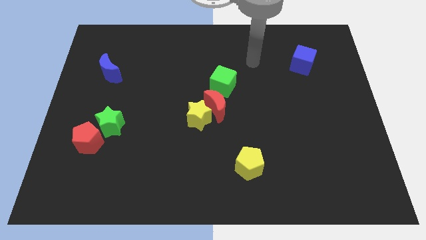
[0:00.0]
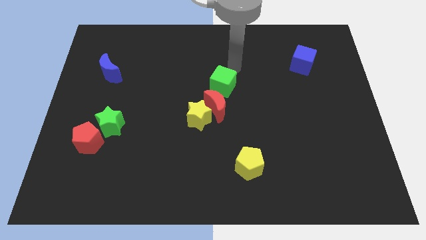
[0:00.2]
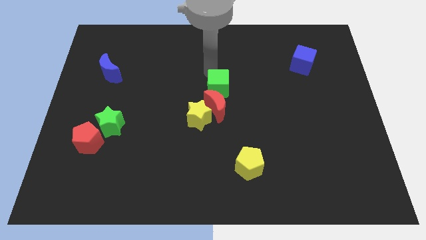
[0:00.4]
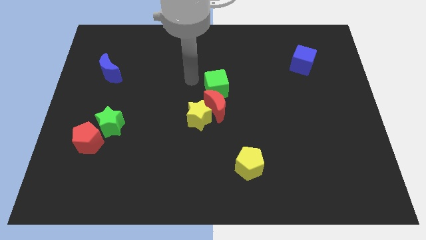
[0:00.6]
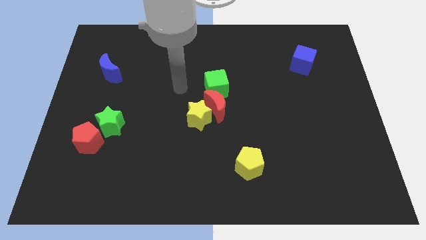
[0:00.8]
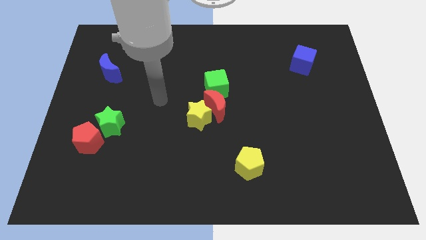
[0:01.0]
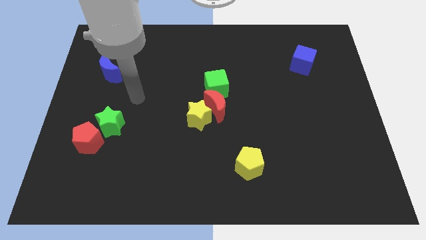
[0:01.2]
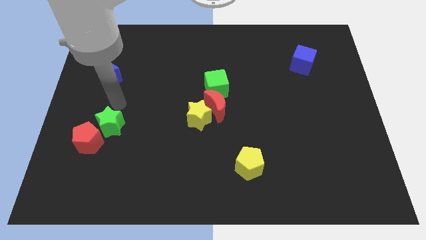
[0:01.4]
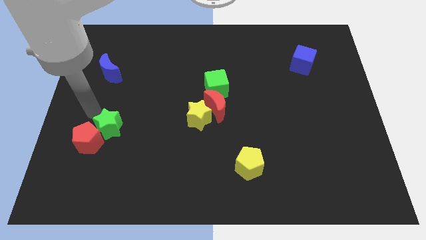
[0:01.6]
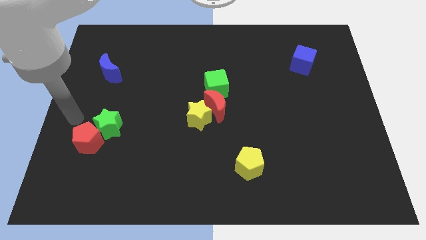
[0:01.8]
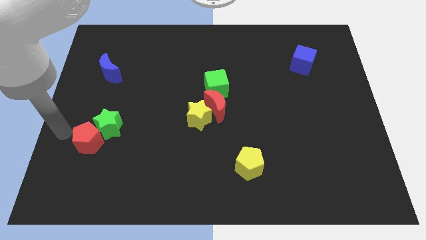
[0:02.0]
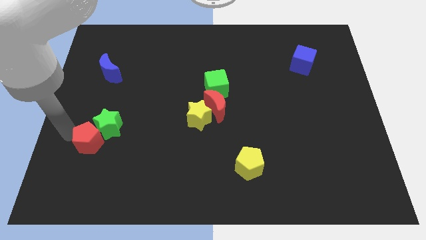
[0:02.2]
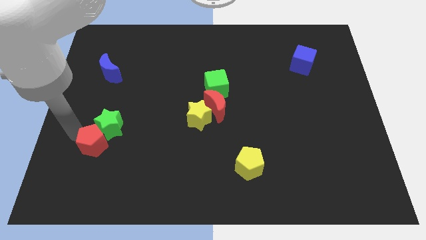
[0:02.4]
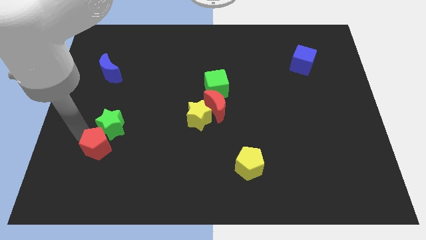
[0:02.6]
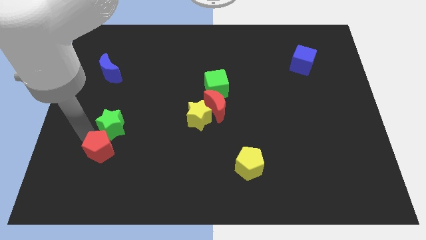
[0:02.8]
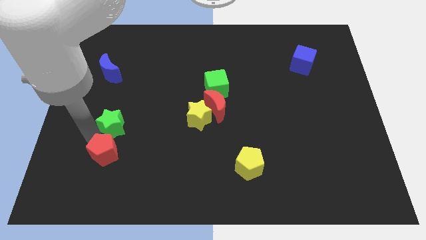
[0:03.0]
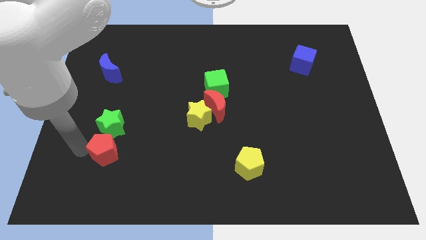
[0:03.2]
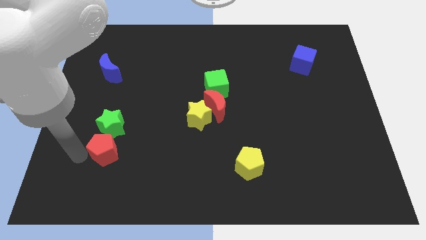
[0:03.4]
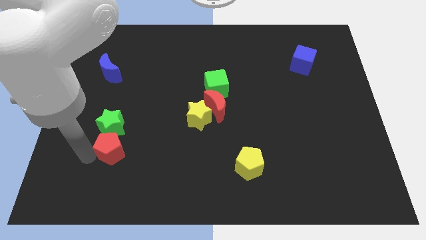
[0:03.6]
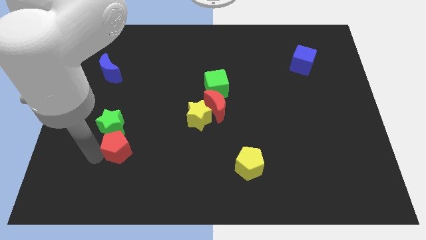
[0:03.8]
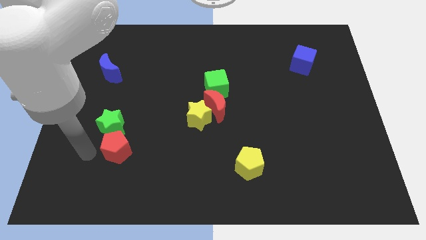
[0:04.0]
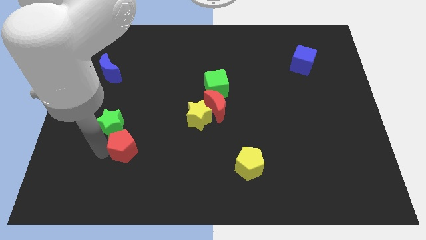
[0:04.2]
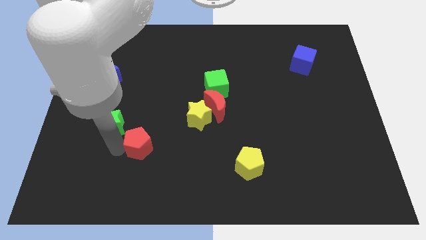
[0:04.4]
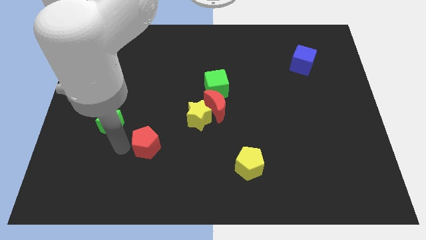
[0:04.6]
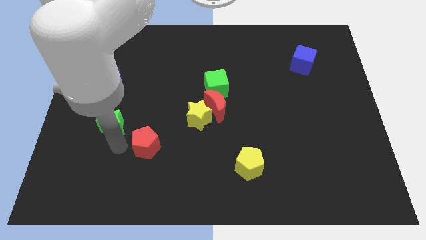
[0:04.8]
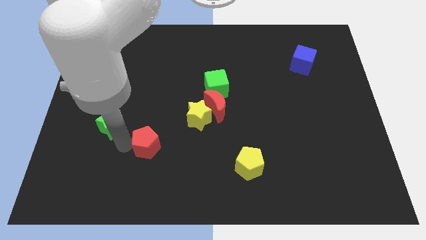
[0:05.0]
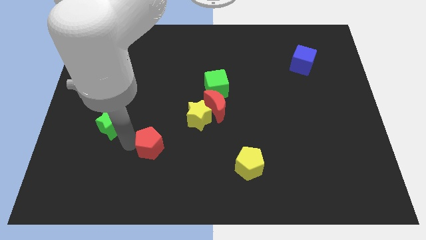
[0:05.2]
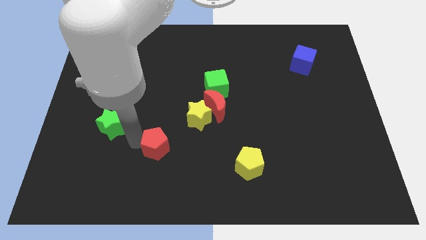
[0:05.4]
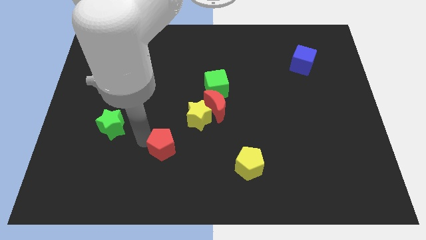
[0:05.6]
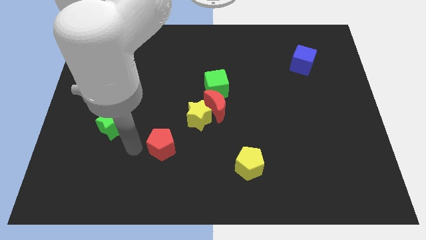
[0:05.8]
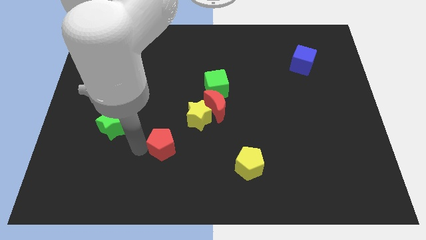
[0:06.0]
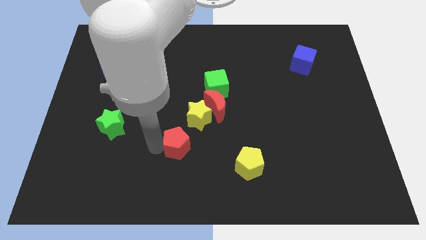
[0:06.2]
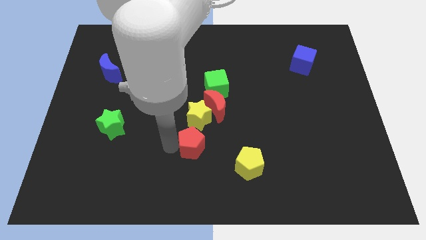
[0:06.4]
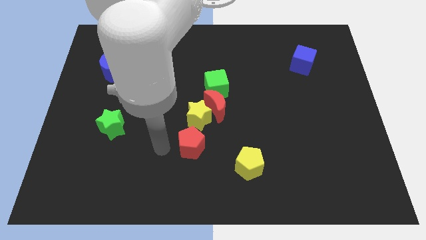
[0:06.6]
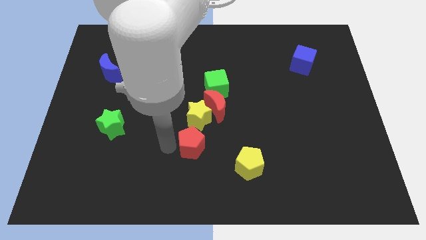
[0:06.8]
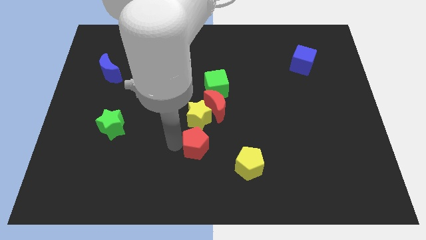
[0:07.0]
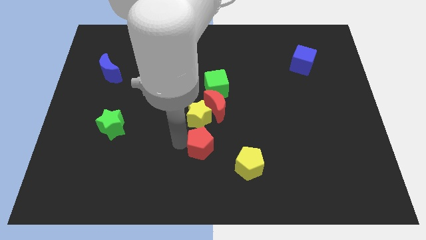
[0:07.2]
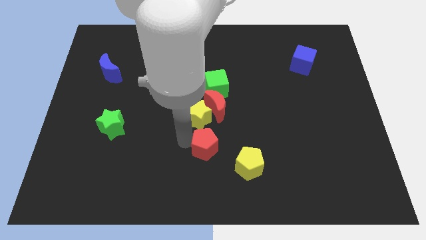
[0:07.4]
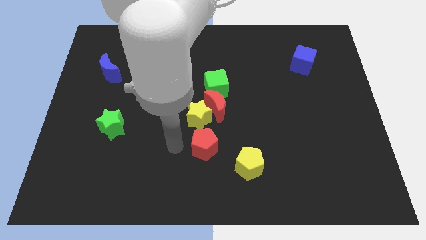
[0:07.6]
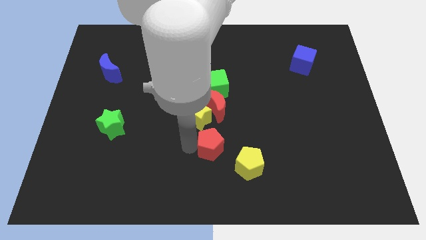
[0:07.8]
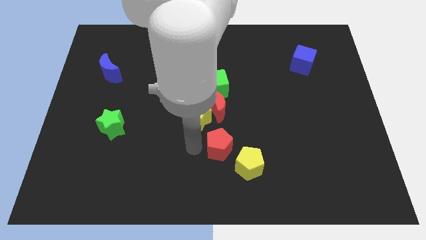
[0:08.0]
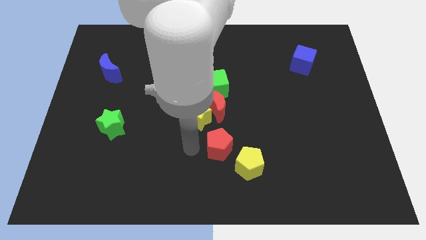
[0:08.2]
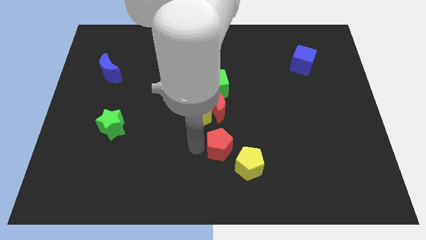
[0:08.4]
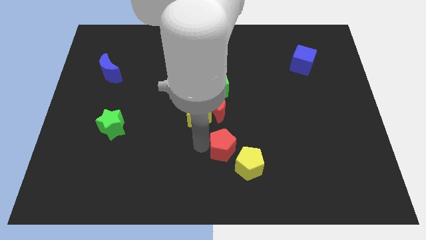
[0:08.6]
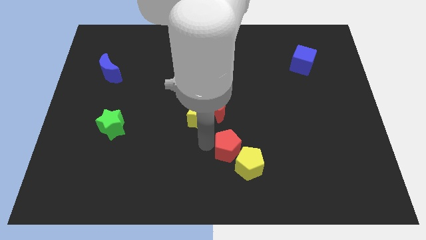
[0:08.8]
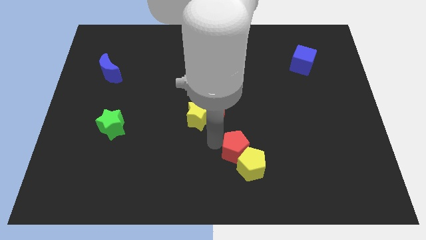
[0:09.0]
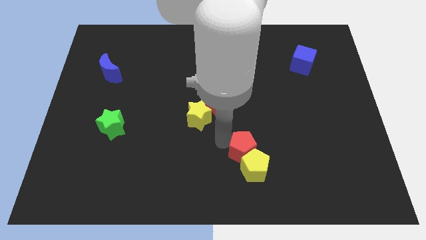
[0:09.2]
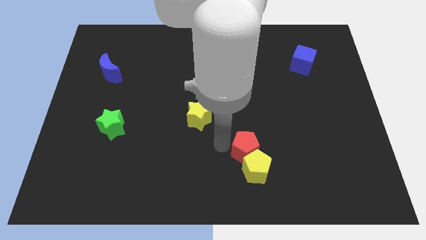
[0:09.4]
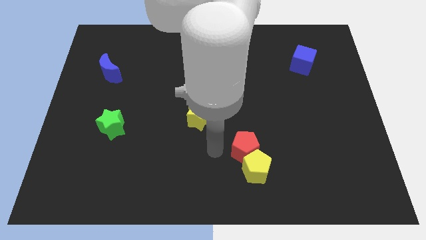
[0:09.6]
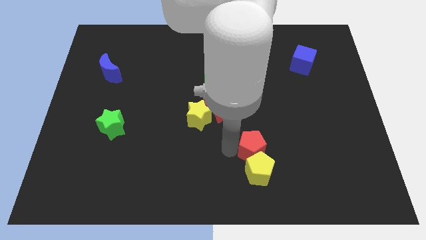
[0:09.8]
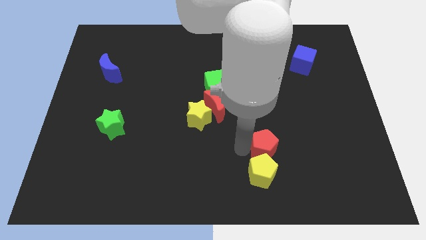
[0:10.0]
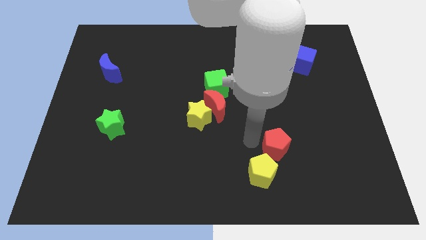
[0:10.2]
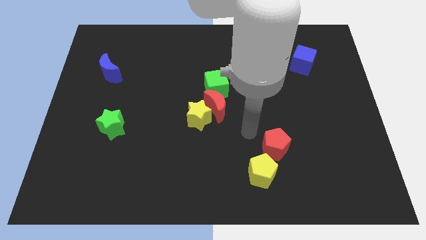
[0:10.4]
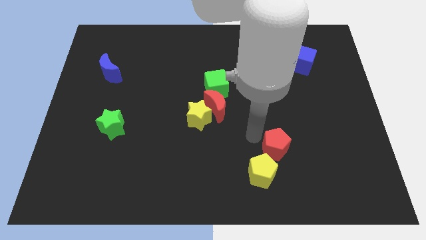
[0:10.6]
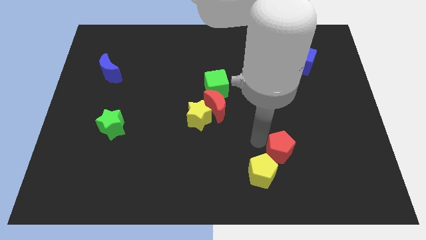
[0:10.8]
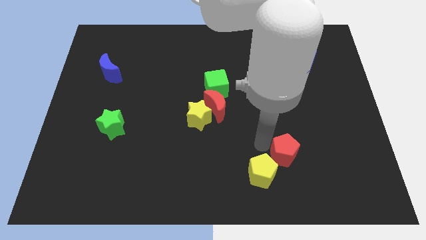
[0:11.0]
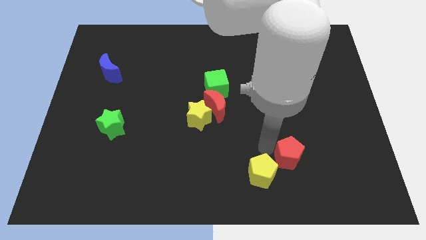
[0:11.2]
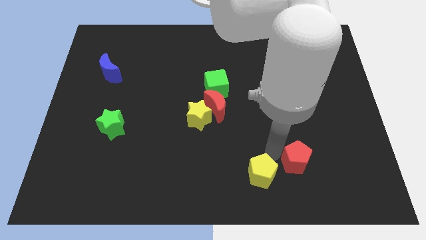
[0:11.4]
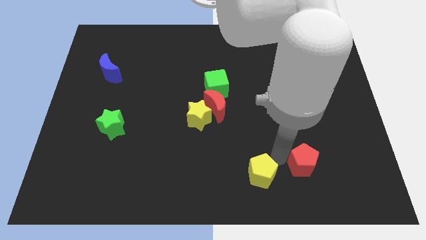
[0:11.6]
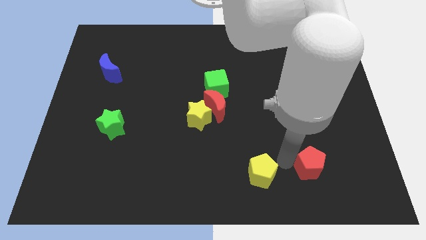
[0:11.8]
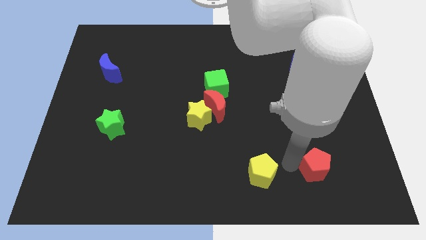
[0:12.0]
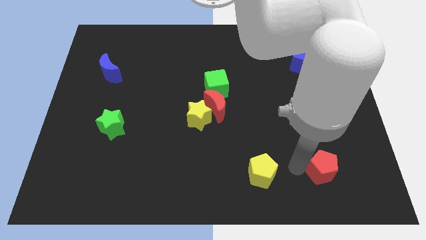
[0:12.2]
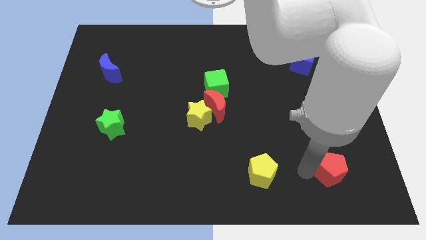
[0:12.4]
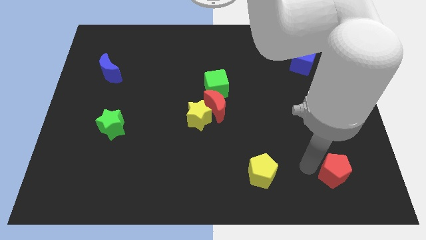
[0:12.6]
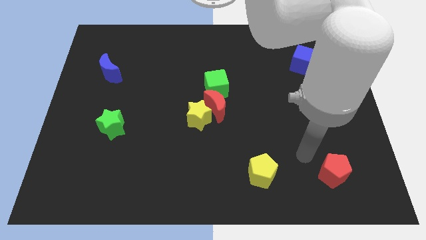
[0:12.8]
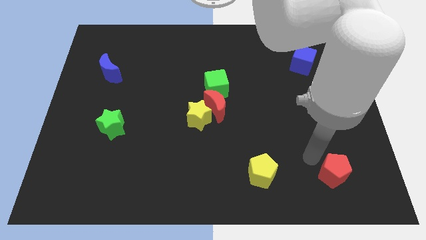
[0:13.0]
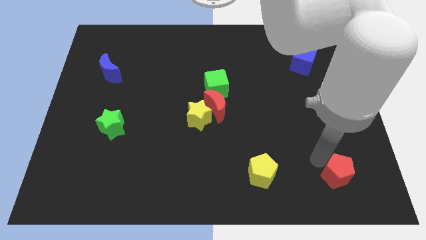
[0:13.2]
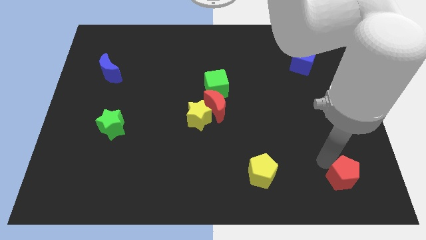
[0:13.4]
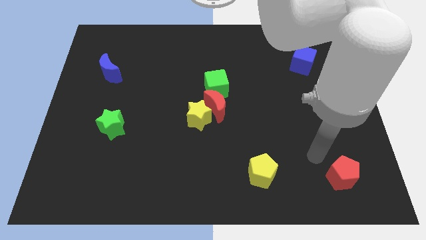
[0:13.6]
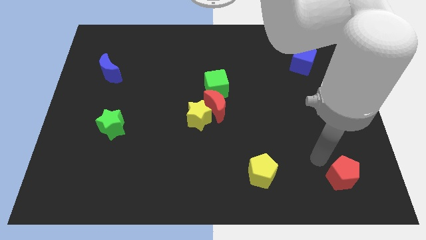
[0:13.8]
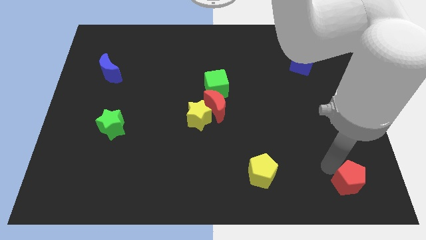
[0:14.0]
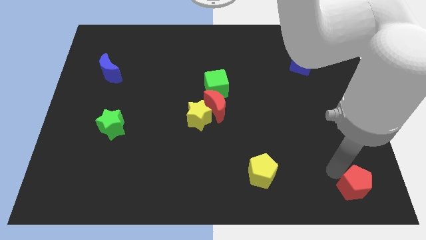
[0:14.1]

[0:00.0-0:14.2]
move the red pentagon to the lower right corner
